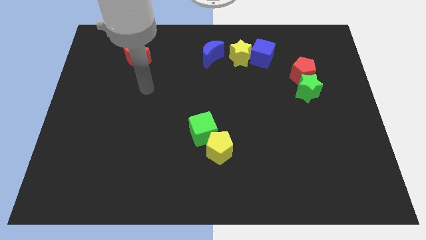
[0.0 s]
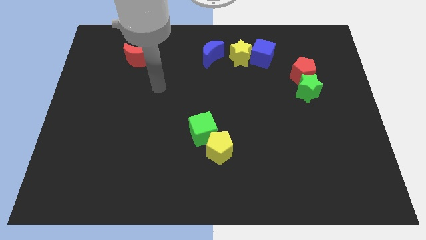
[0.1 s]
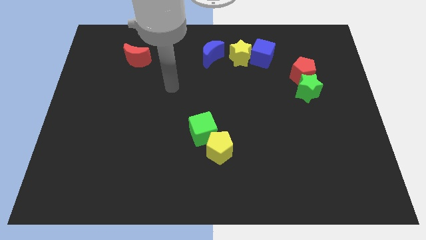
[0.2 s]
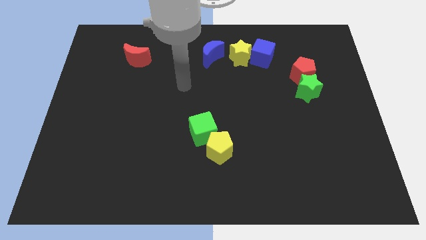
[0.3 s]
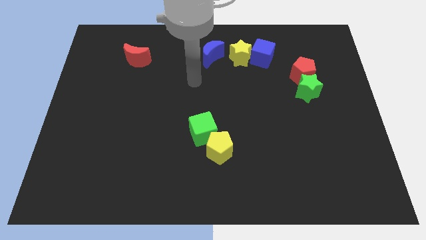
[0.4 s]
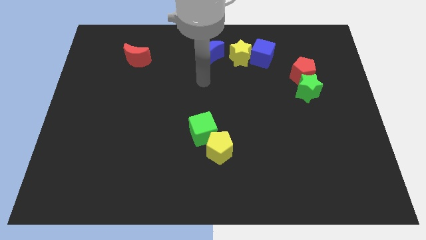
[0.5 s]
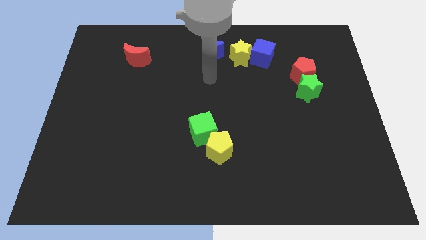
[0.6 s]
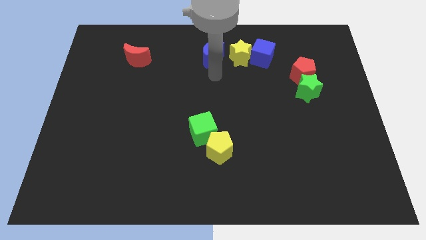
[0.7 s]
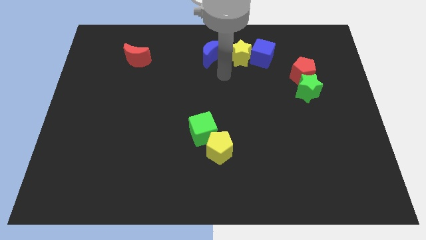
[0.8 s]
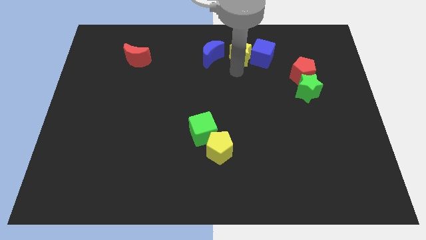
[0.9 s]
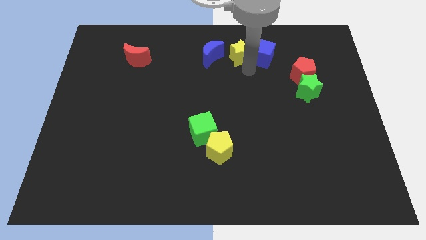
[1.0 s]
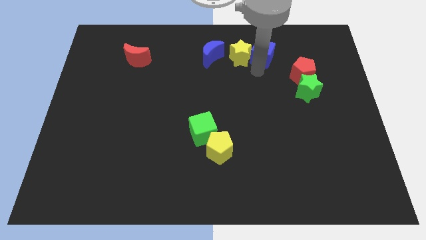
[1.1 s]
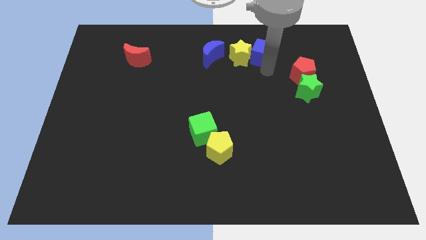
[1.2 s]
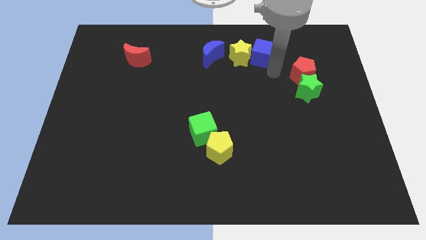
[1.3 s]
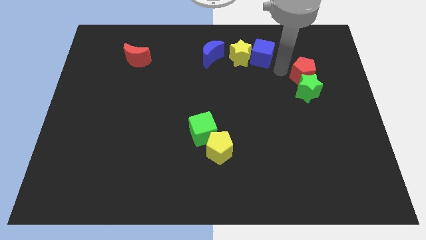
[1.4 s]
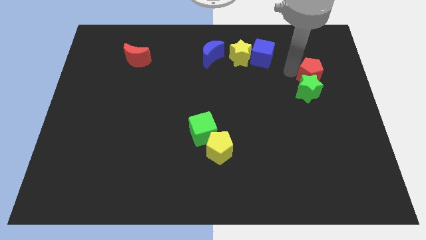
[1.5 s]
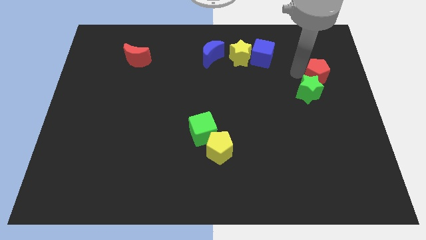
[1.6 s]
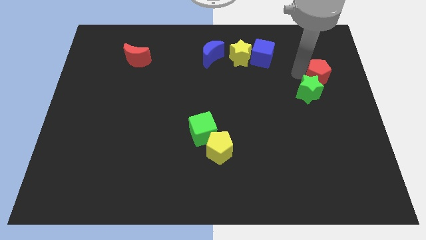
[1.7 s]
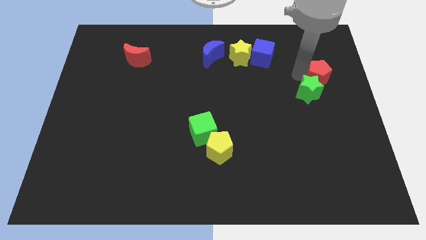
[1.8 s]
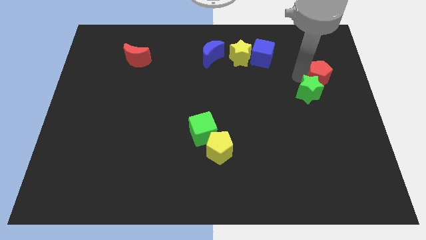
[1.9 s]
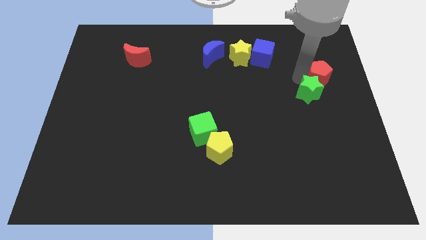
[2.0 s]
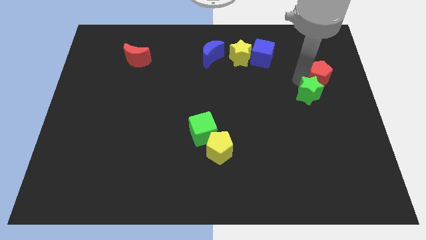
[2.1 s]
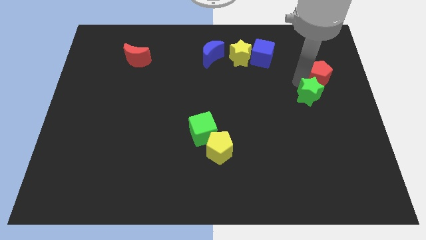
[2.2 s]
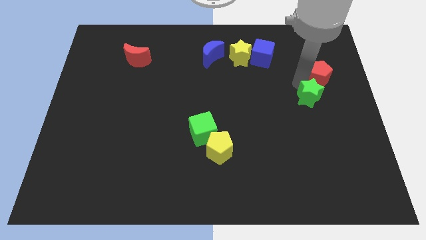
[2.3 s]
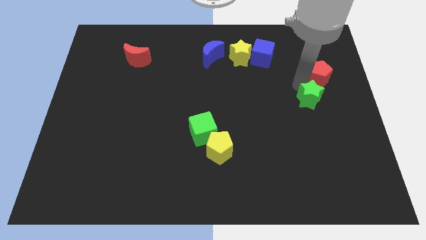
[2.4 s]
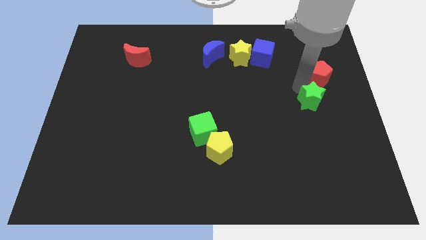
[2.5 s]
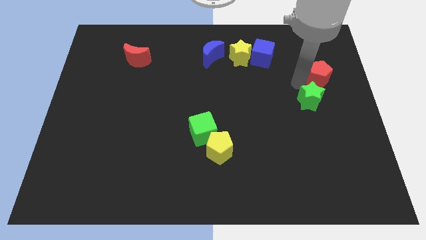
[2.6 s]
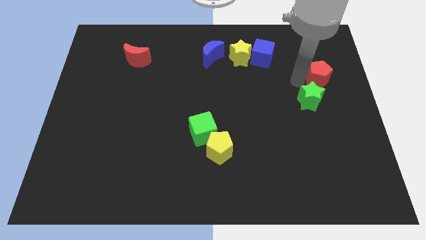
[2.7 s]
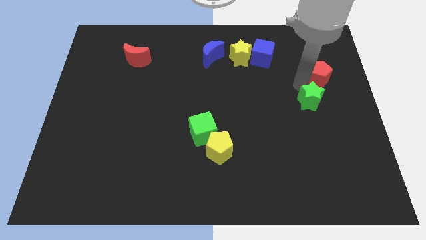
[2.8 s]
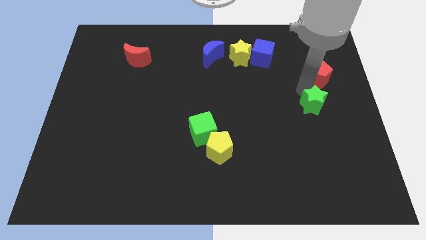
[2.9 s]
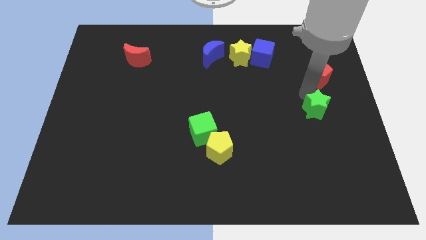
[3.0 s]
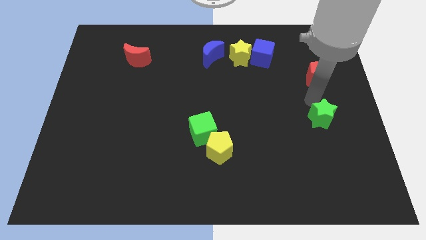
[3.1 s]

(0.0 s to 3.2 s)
slide the green star down a little

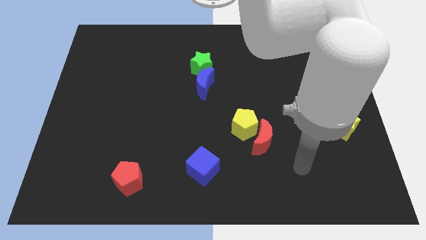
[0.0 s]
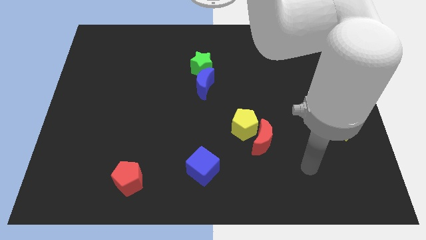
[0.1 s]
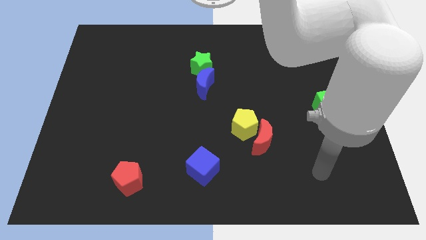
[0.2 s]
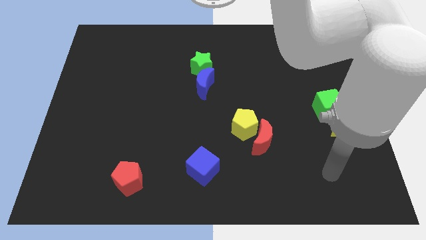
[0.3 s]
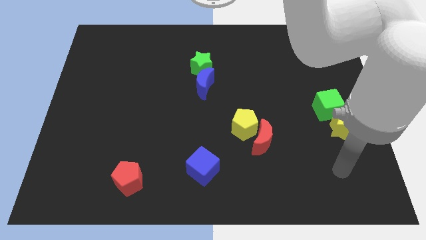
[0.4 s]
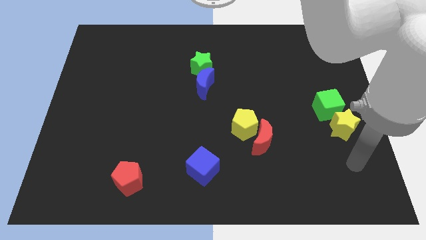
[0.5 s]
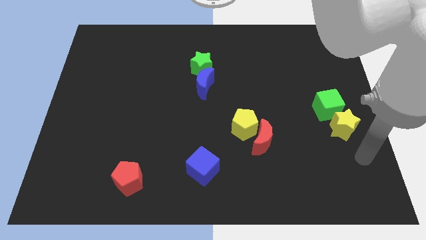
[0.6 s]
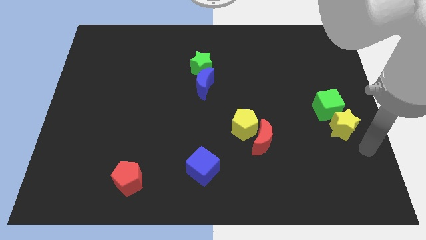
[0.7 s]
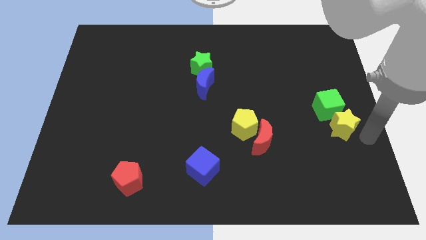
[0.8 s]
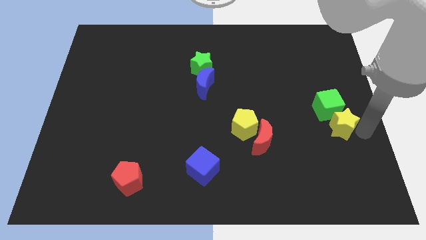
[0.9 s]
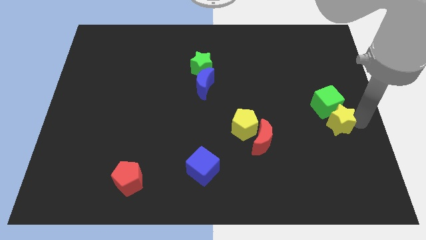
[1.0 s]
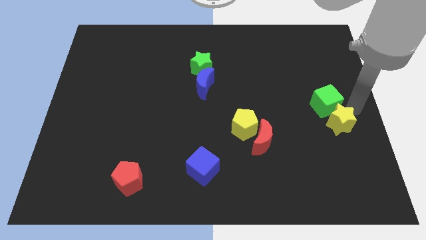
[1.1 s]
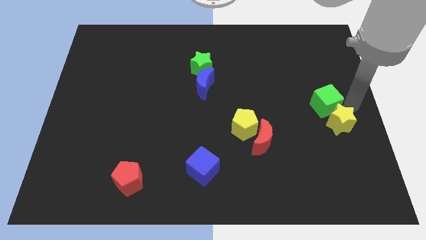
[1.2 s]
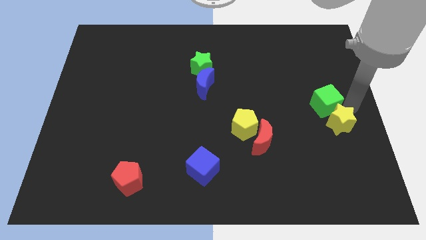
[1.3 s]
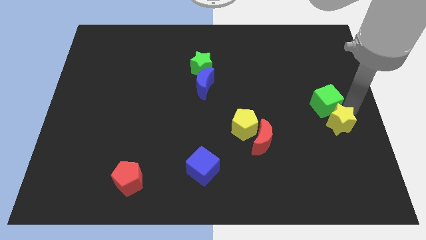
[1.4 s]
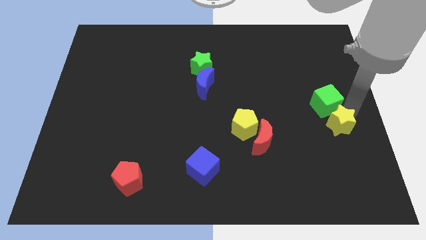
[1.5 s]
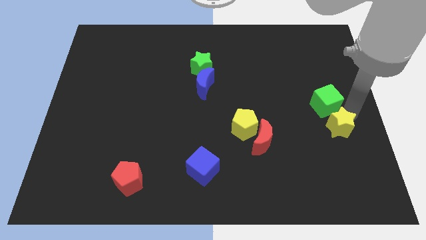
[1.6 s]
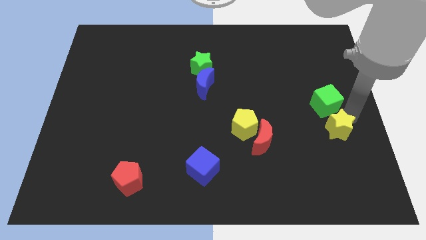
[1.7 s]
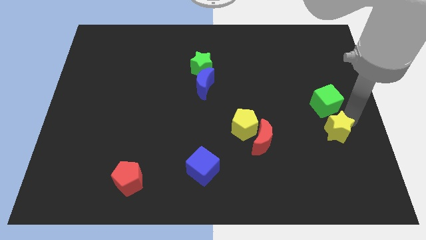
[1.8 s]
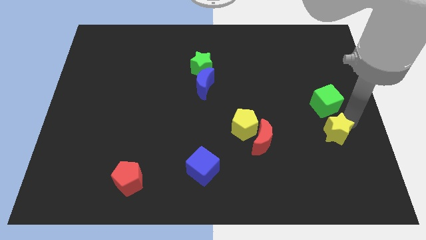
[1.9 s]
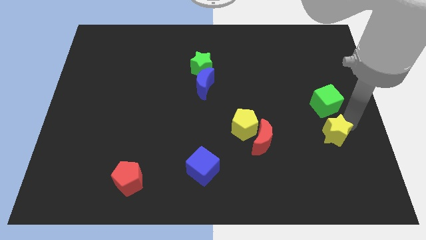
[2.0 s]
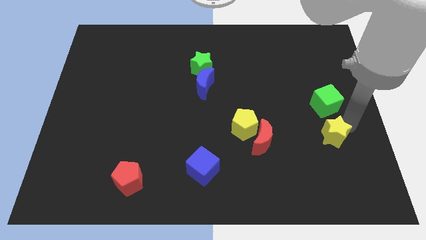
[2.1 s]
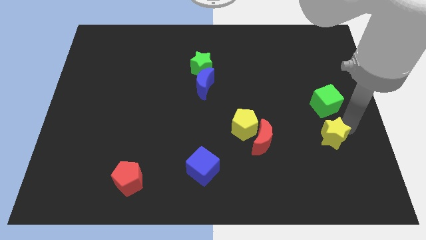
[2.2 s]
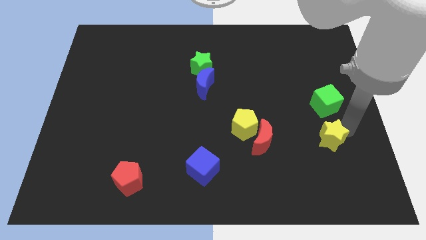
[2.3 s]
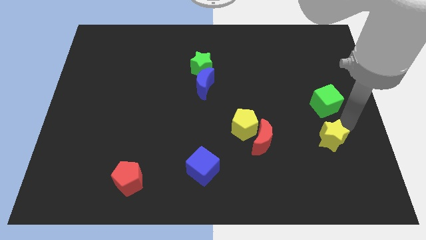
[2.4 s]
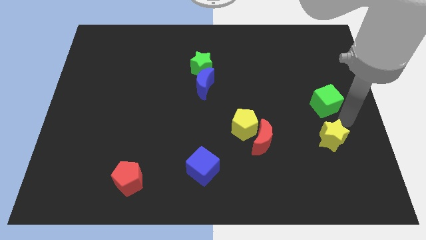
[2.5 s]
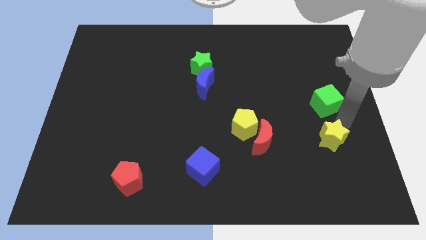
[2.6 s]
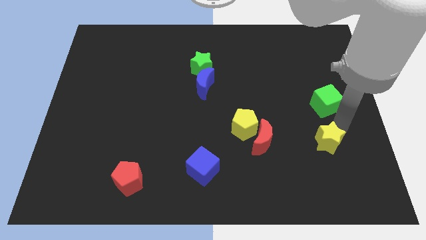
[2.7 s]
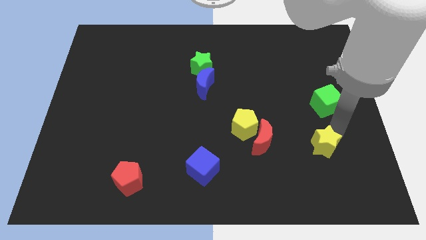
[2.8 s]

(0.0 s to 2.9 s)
push the yellow star downwards and left diagonally a little bit

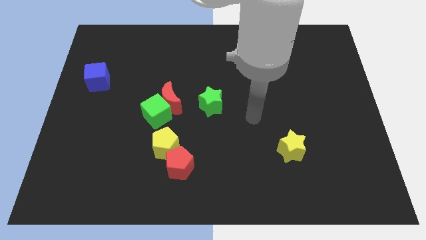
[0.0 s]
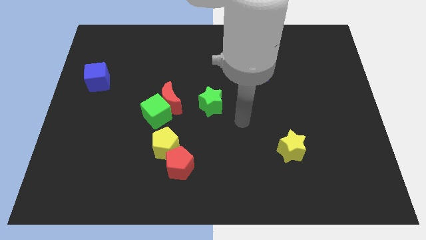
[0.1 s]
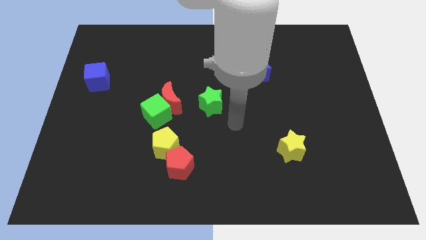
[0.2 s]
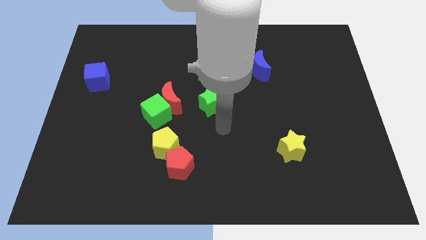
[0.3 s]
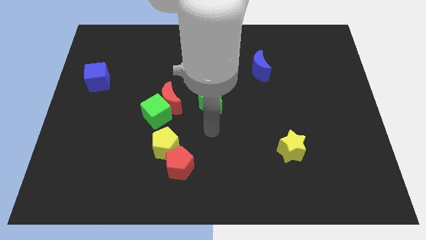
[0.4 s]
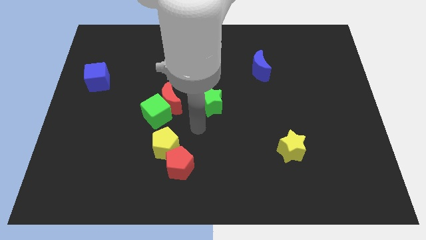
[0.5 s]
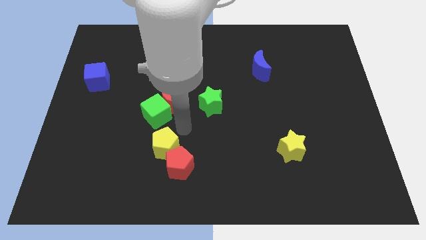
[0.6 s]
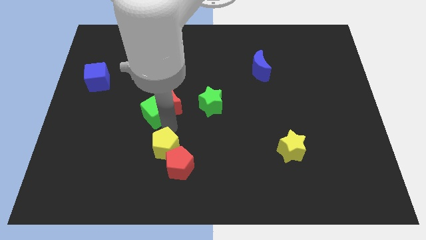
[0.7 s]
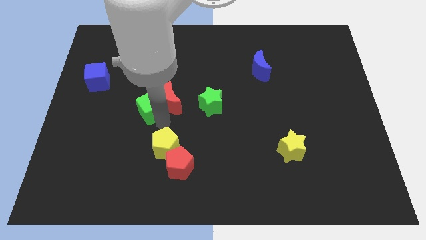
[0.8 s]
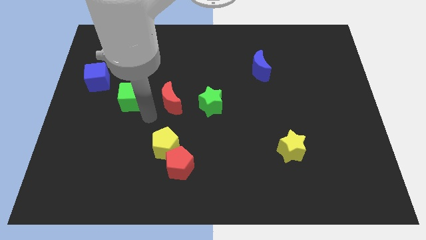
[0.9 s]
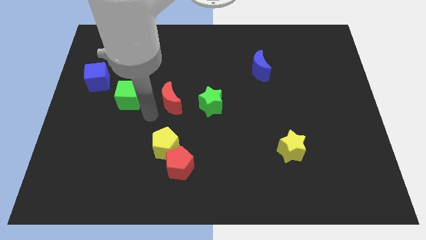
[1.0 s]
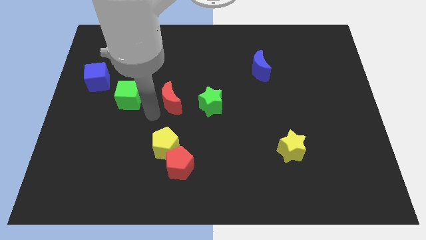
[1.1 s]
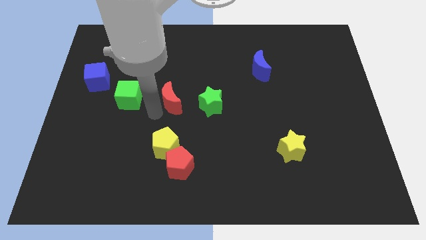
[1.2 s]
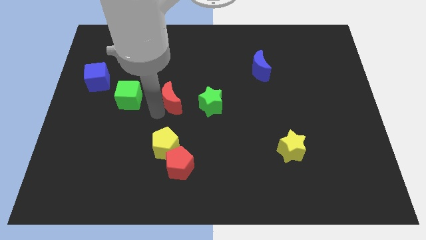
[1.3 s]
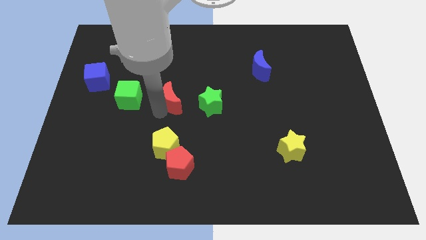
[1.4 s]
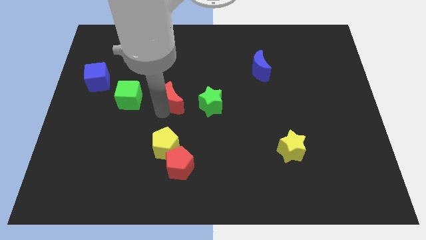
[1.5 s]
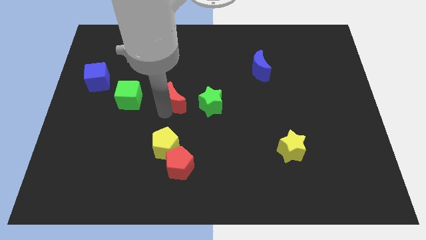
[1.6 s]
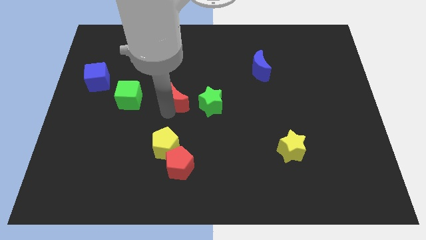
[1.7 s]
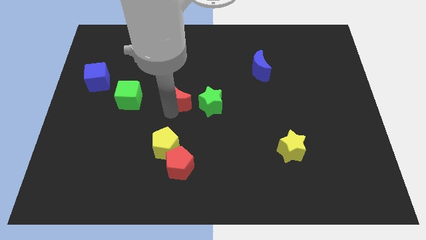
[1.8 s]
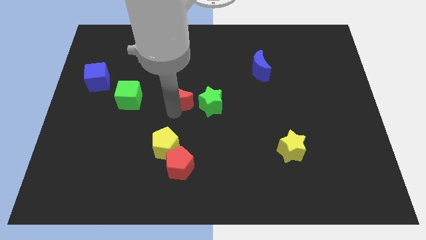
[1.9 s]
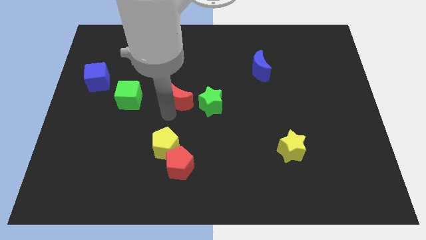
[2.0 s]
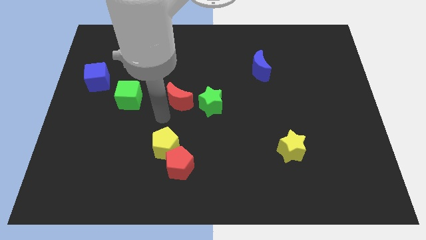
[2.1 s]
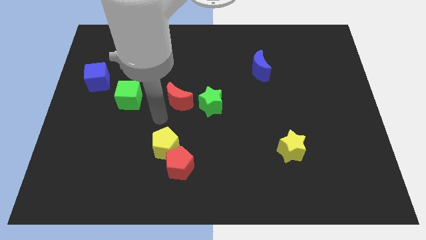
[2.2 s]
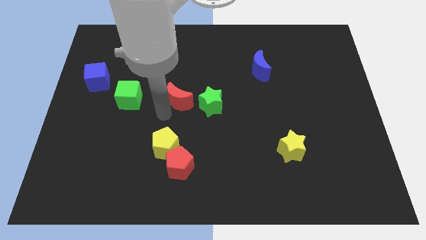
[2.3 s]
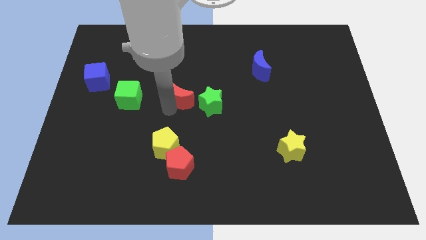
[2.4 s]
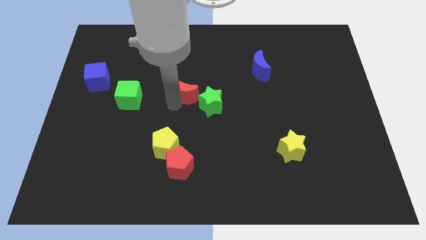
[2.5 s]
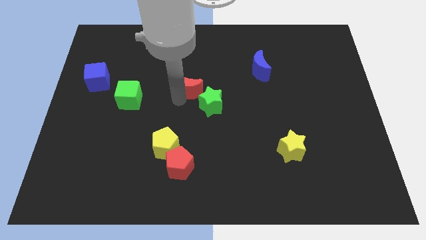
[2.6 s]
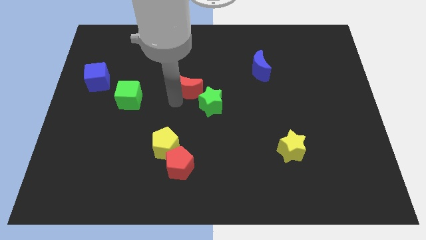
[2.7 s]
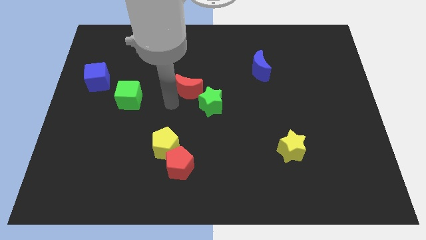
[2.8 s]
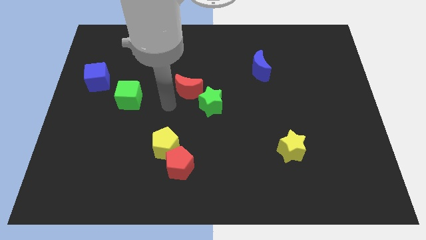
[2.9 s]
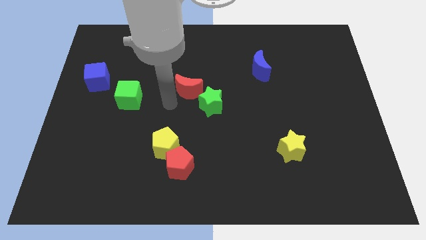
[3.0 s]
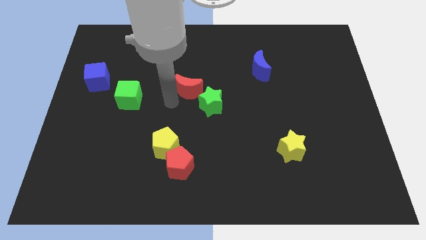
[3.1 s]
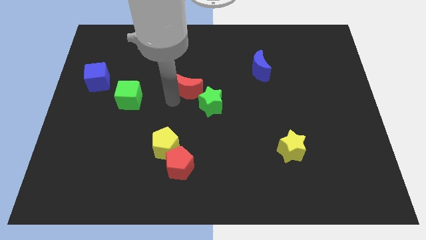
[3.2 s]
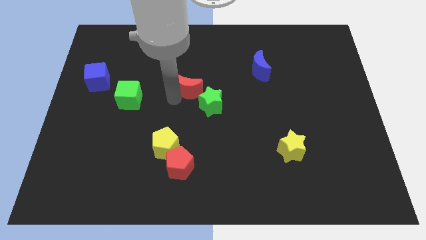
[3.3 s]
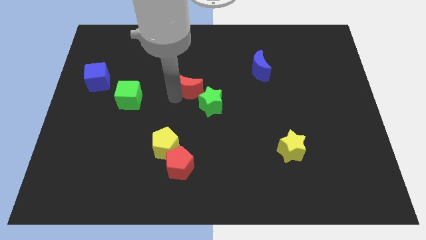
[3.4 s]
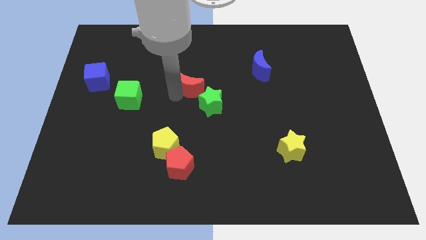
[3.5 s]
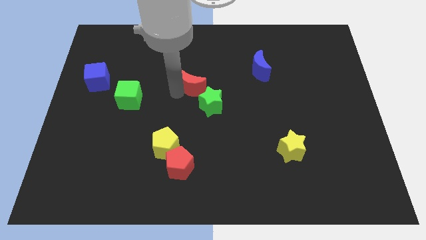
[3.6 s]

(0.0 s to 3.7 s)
slide the red moon diagonally up and right a bit
